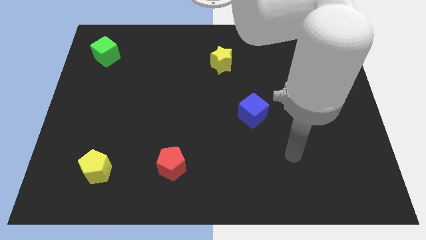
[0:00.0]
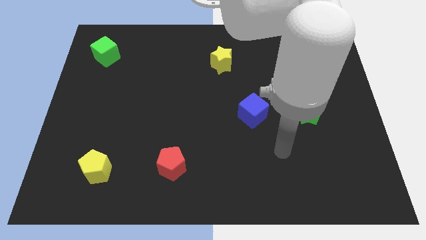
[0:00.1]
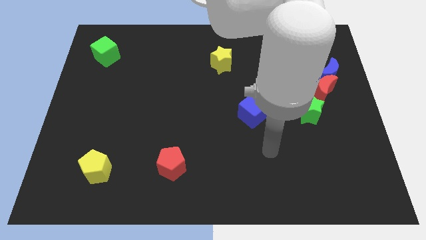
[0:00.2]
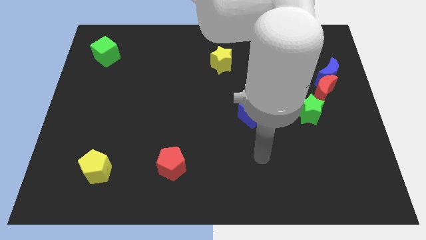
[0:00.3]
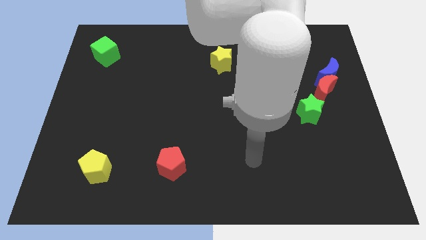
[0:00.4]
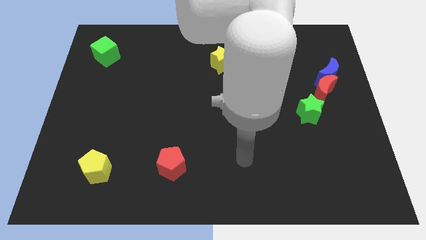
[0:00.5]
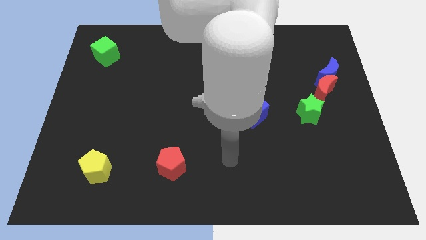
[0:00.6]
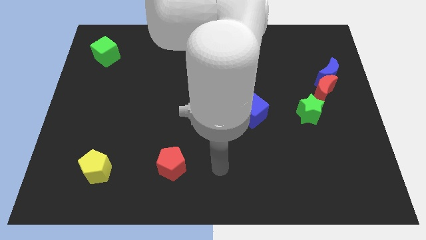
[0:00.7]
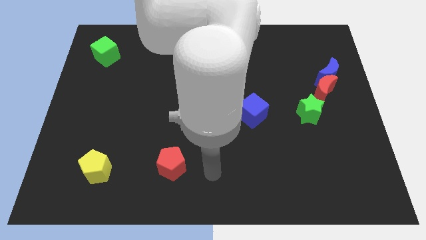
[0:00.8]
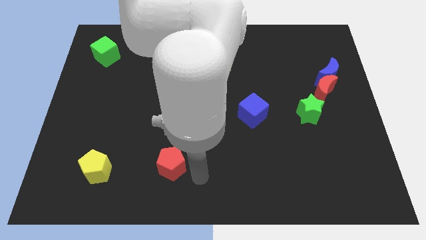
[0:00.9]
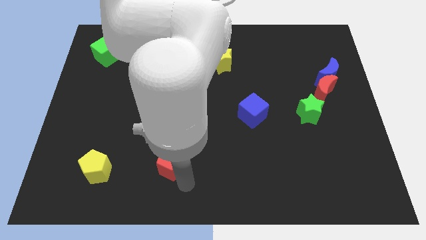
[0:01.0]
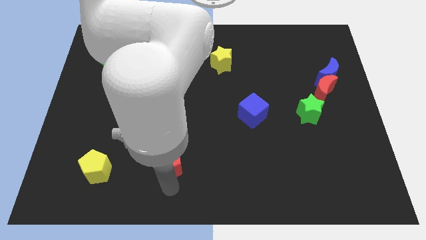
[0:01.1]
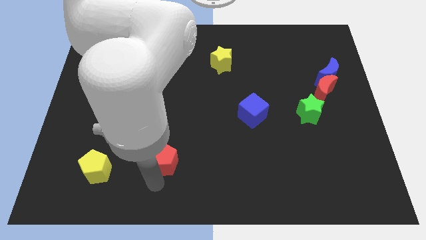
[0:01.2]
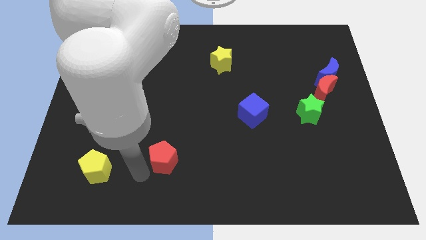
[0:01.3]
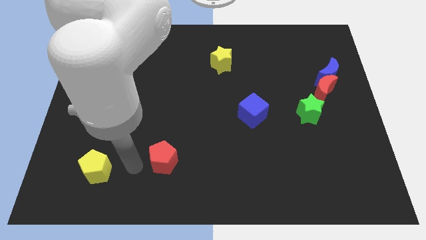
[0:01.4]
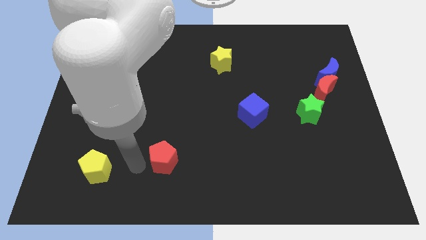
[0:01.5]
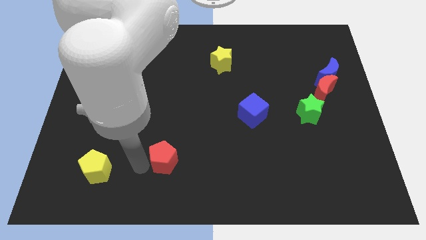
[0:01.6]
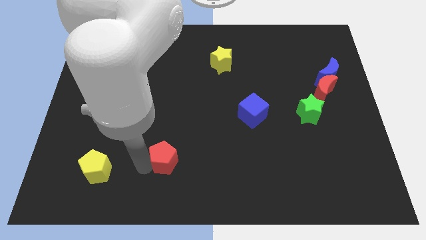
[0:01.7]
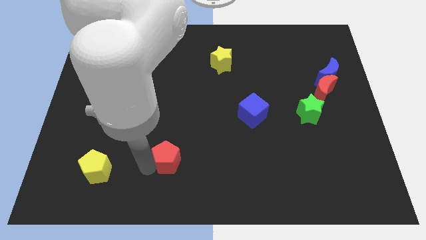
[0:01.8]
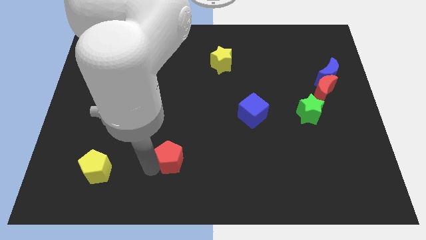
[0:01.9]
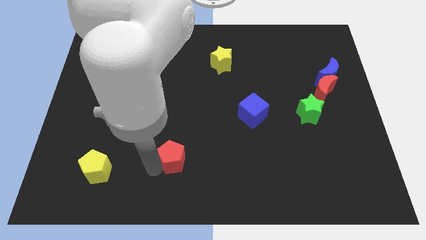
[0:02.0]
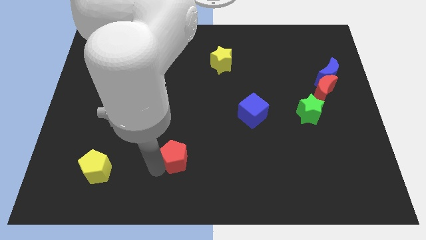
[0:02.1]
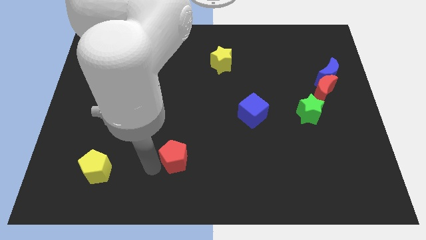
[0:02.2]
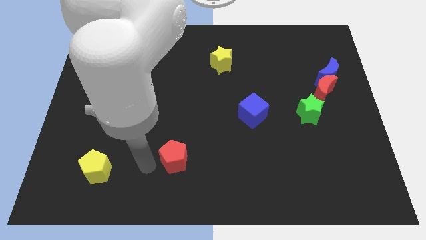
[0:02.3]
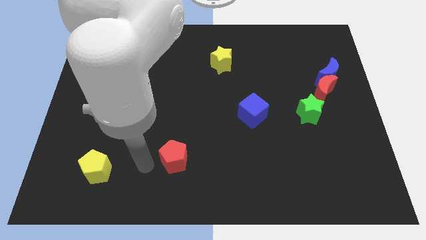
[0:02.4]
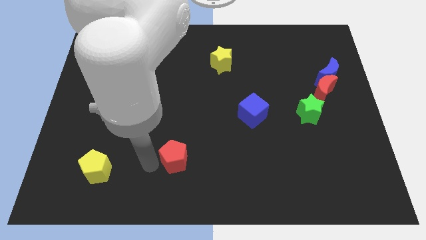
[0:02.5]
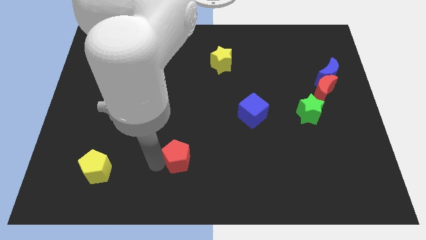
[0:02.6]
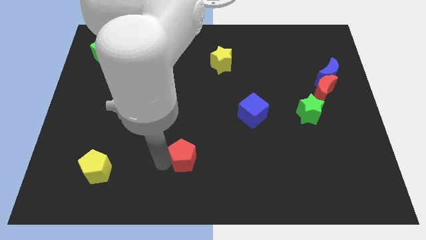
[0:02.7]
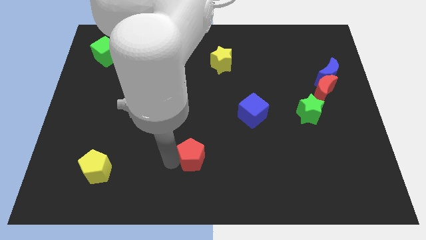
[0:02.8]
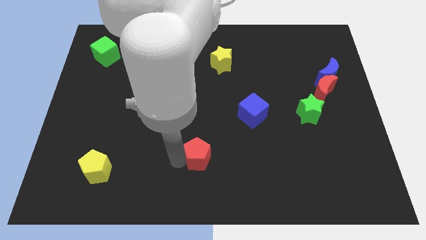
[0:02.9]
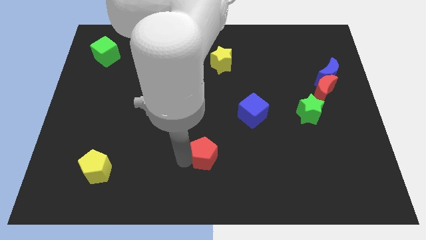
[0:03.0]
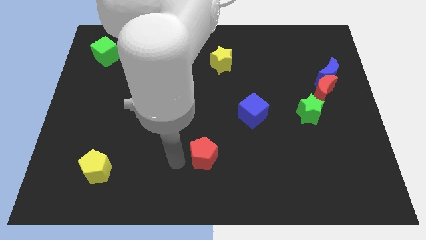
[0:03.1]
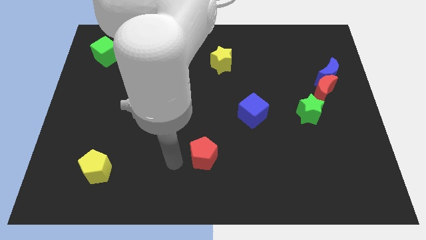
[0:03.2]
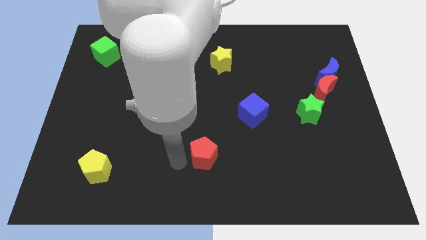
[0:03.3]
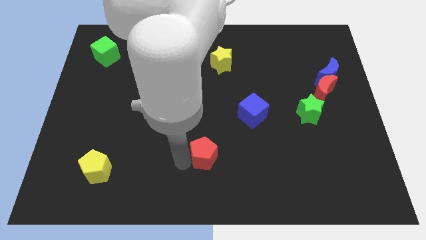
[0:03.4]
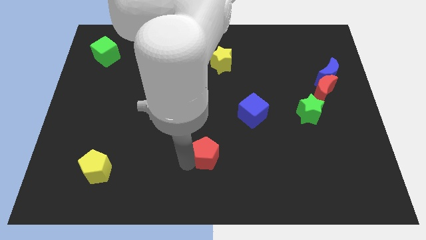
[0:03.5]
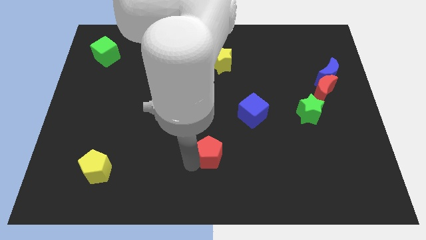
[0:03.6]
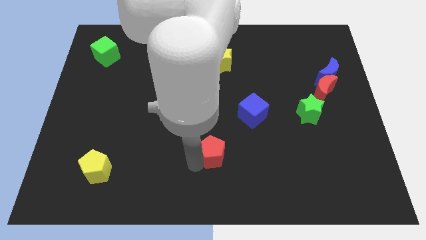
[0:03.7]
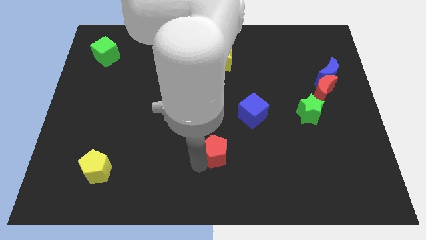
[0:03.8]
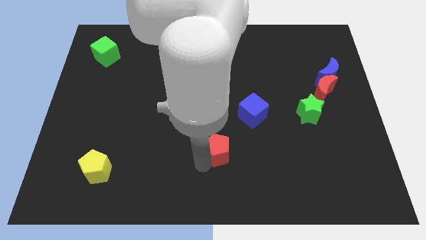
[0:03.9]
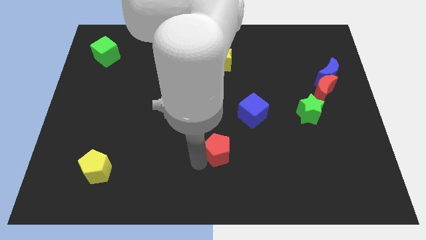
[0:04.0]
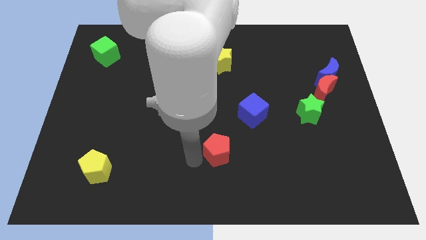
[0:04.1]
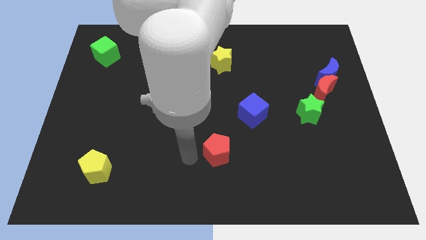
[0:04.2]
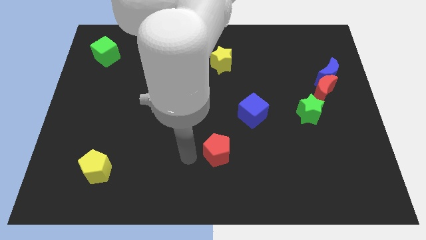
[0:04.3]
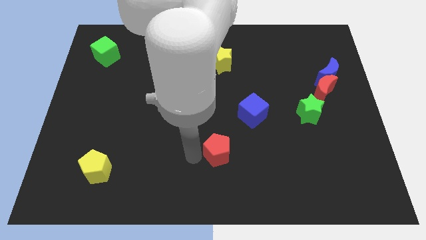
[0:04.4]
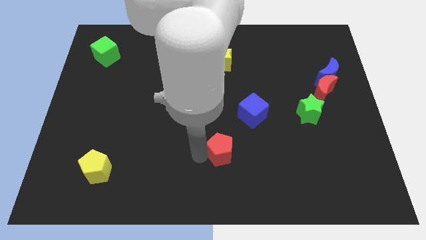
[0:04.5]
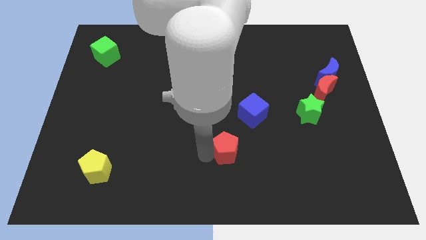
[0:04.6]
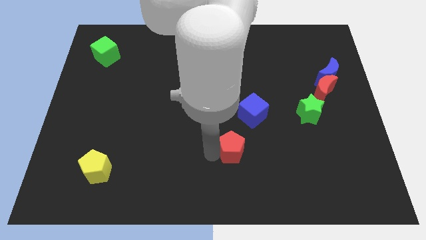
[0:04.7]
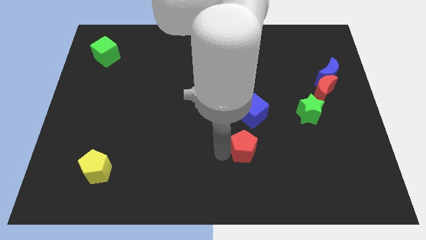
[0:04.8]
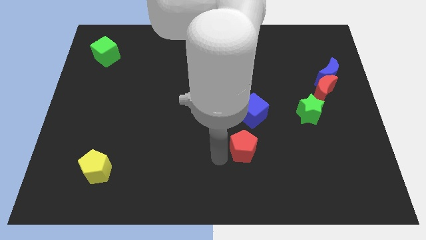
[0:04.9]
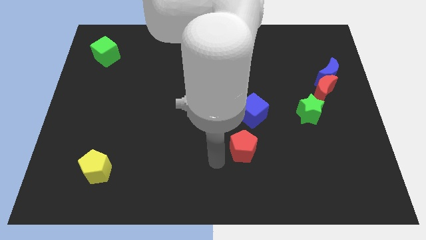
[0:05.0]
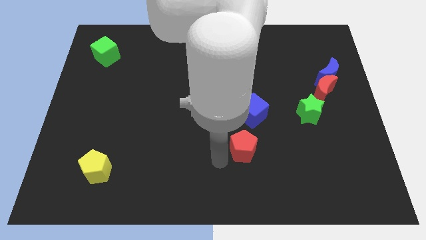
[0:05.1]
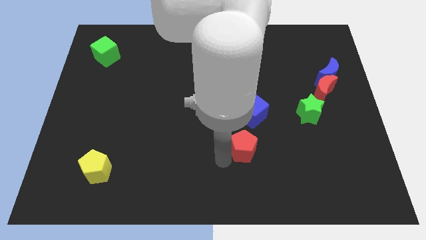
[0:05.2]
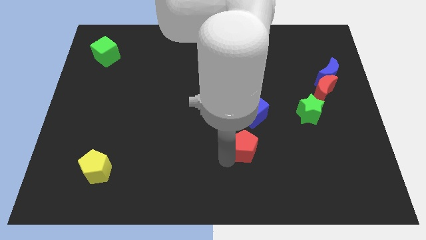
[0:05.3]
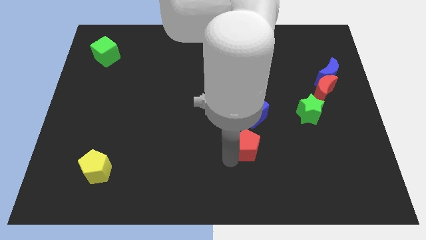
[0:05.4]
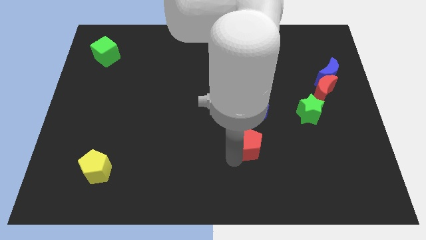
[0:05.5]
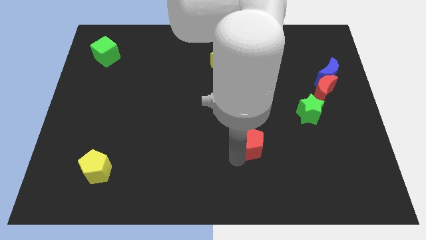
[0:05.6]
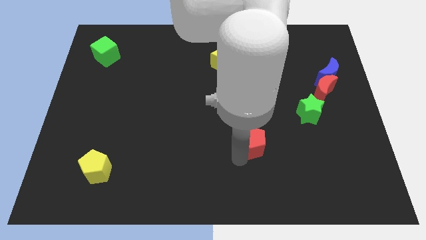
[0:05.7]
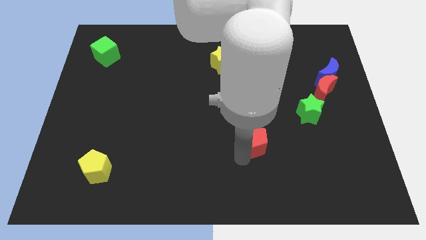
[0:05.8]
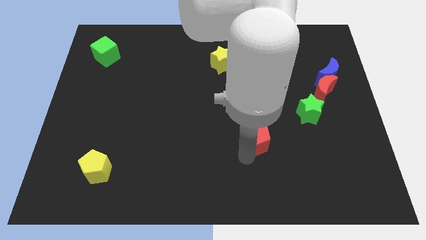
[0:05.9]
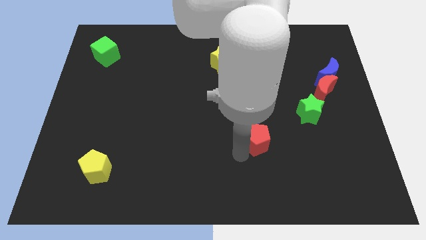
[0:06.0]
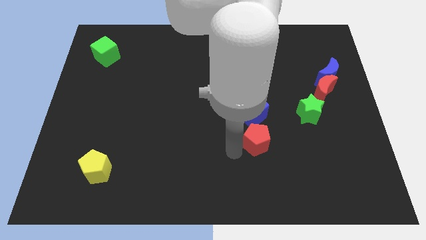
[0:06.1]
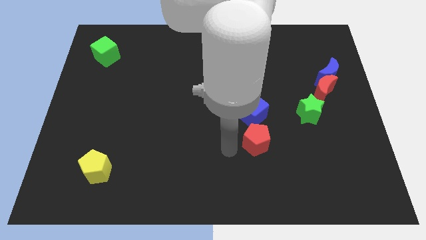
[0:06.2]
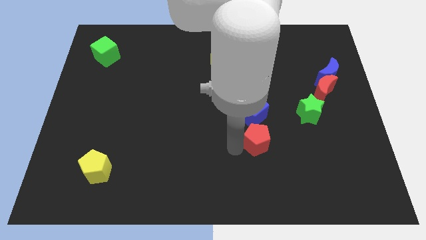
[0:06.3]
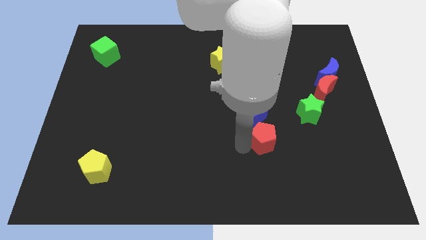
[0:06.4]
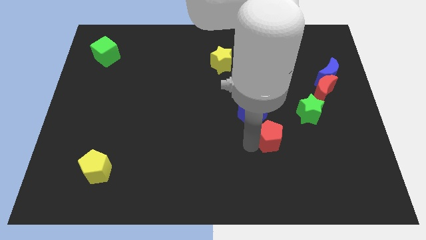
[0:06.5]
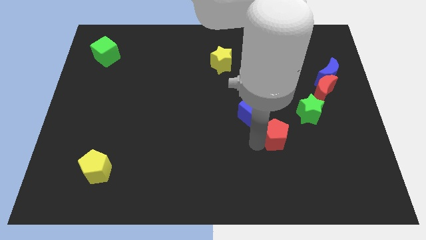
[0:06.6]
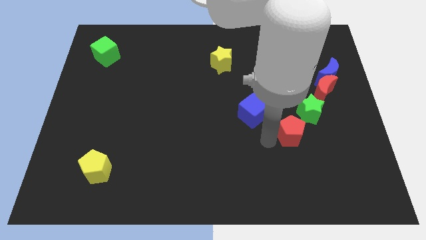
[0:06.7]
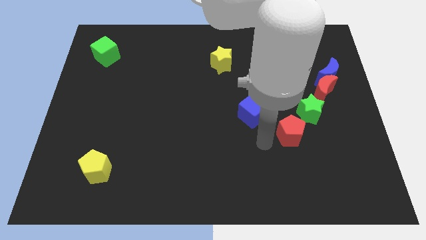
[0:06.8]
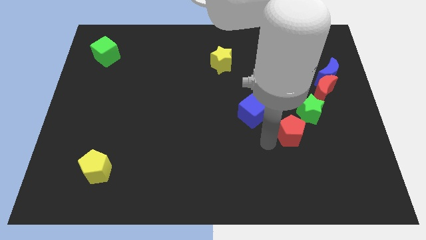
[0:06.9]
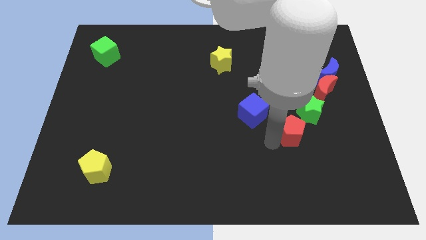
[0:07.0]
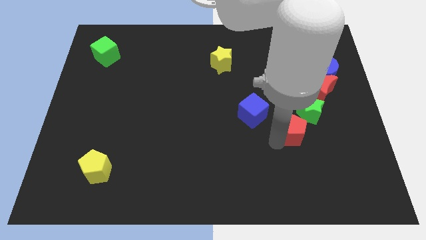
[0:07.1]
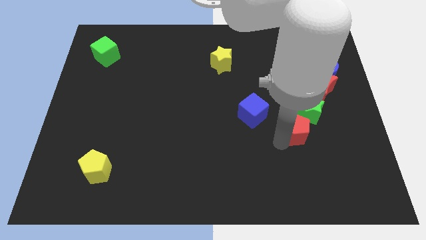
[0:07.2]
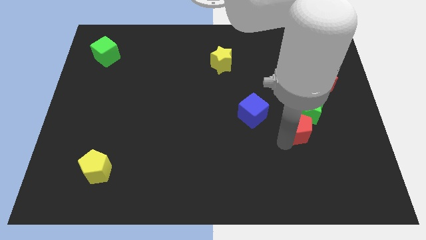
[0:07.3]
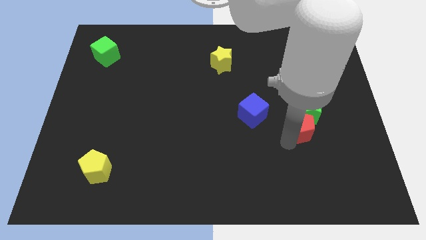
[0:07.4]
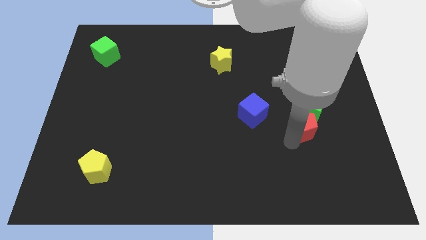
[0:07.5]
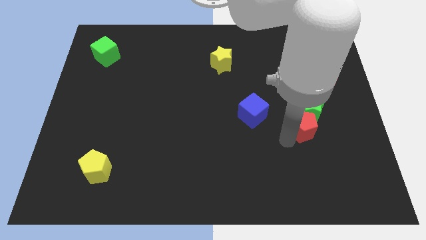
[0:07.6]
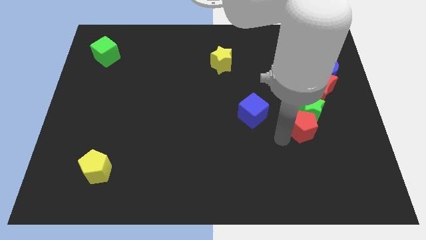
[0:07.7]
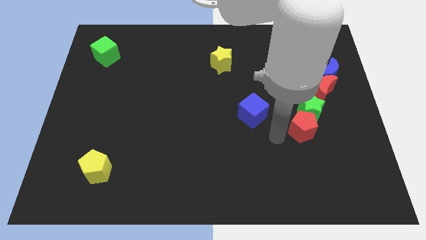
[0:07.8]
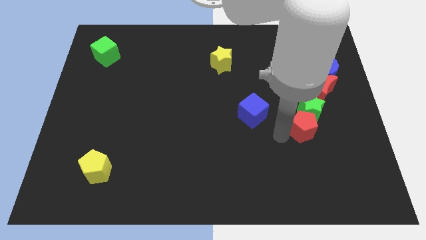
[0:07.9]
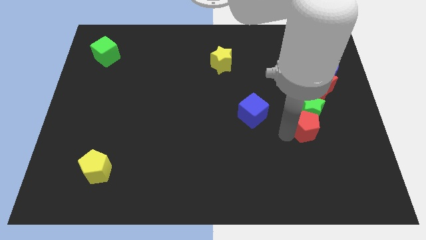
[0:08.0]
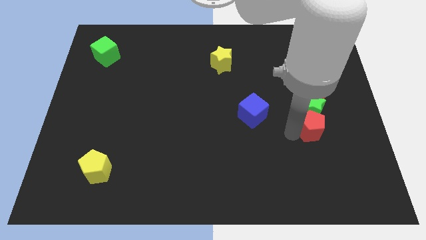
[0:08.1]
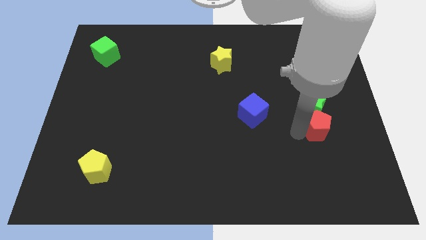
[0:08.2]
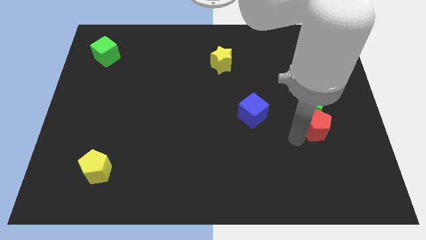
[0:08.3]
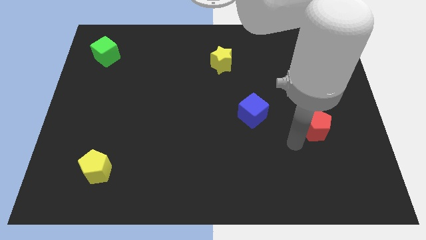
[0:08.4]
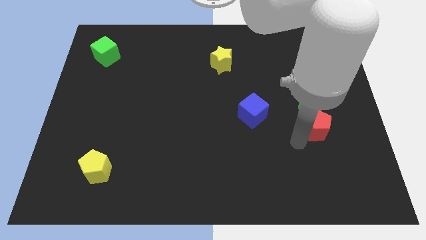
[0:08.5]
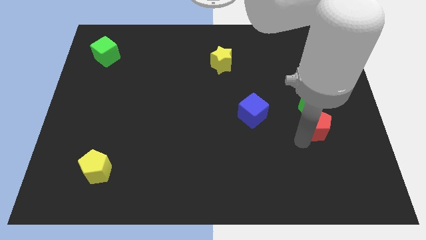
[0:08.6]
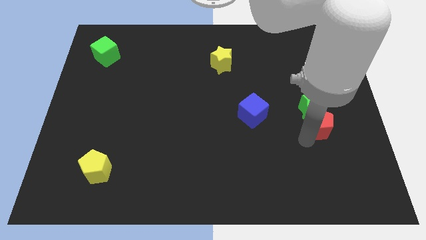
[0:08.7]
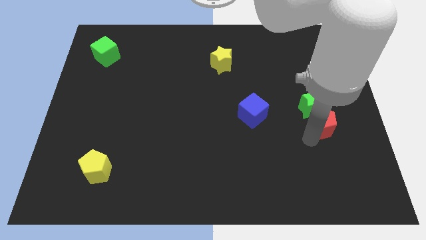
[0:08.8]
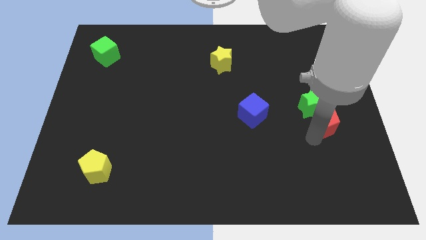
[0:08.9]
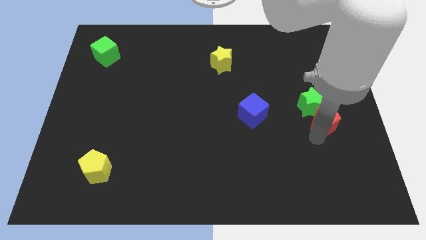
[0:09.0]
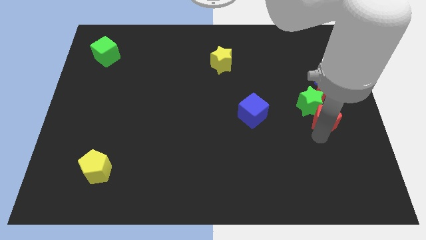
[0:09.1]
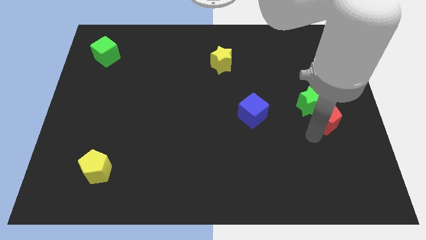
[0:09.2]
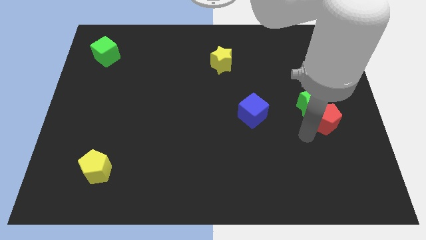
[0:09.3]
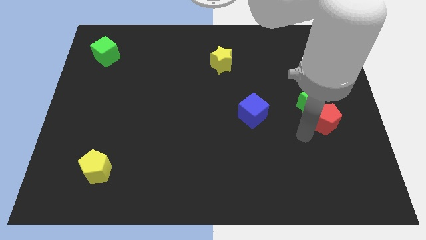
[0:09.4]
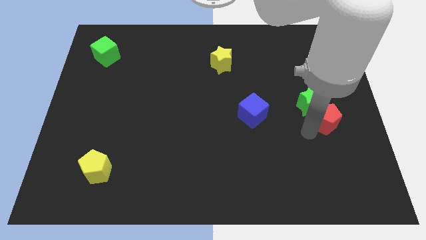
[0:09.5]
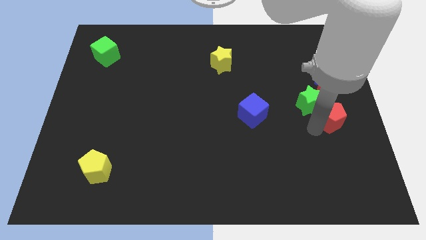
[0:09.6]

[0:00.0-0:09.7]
push the red pentagon to the right side of the board
